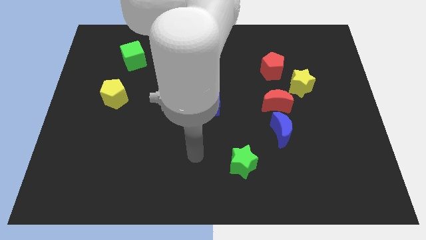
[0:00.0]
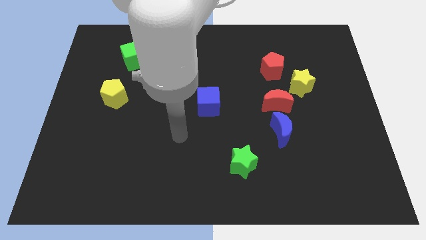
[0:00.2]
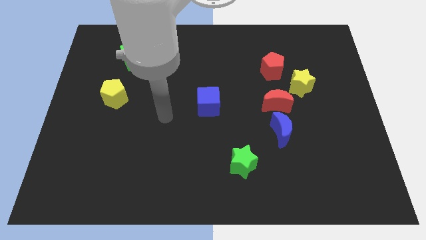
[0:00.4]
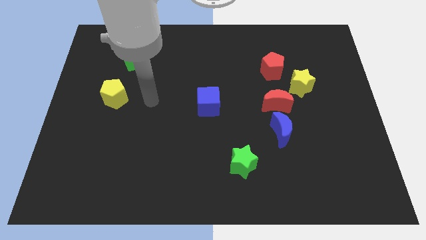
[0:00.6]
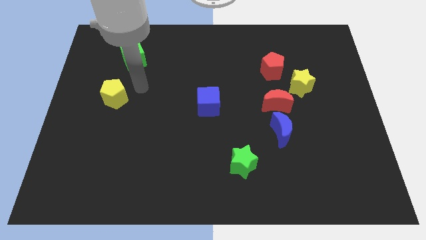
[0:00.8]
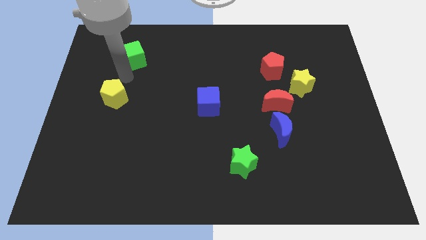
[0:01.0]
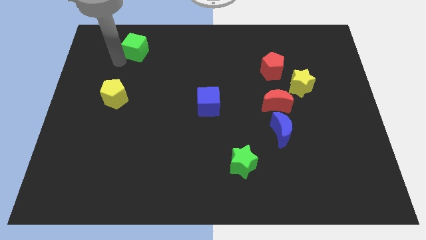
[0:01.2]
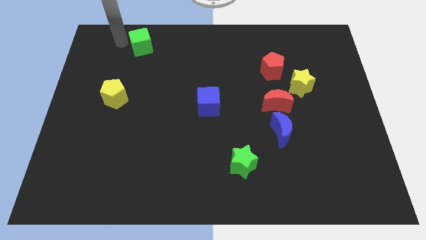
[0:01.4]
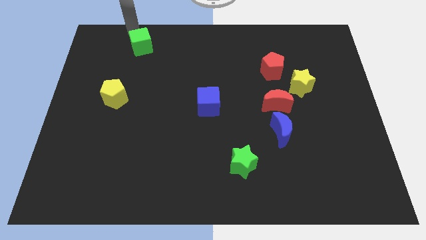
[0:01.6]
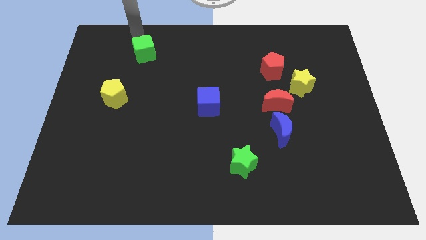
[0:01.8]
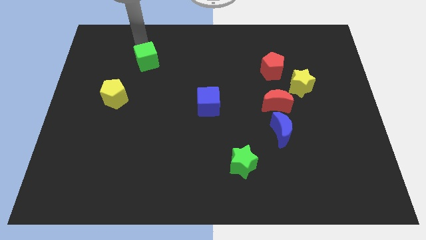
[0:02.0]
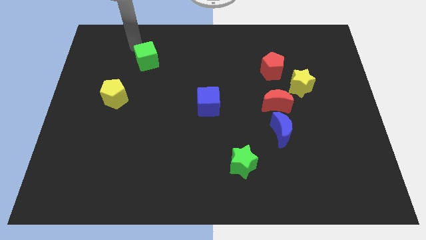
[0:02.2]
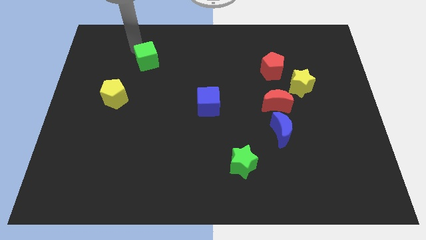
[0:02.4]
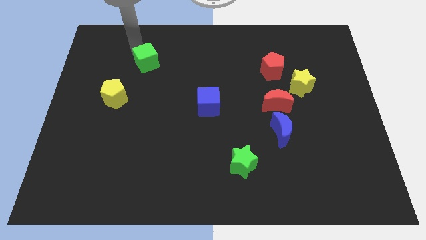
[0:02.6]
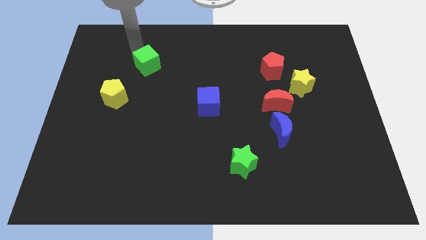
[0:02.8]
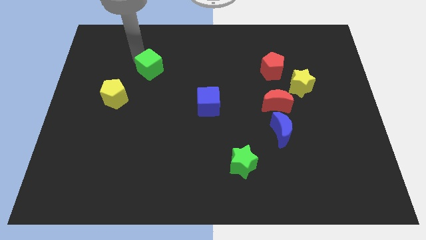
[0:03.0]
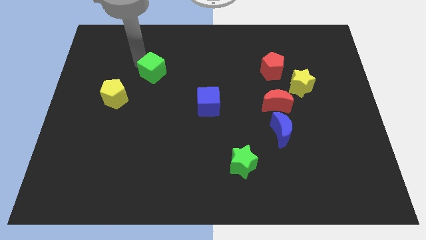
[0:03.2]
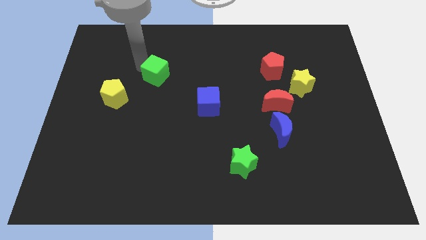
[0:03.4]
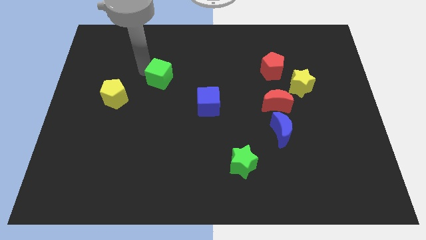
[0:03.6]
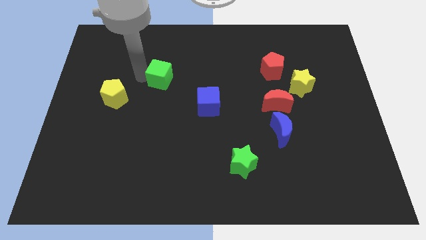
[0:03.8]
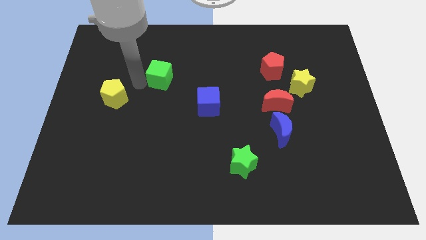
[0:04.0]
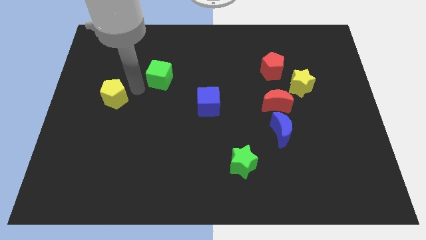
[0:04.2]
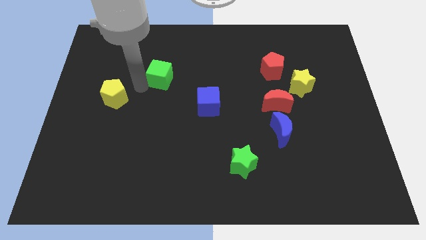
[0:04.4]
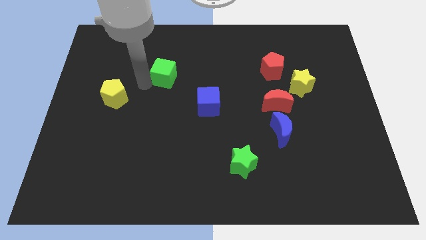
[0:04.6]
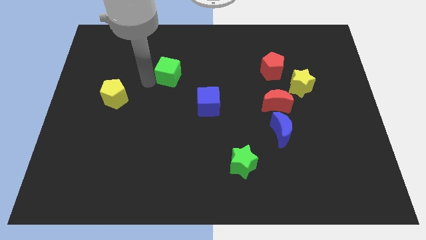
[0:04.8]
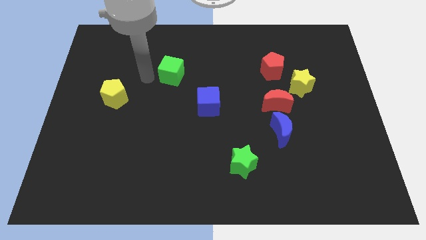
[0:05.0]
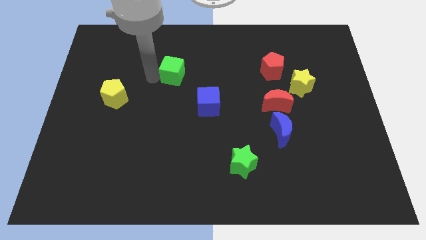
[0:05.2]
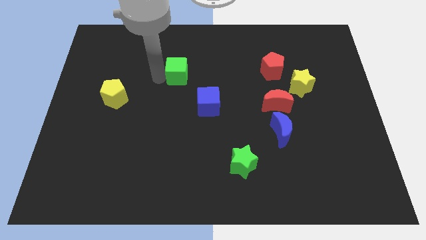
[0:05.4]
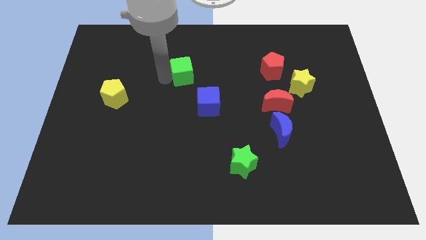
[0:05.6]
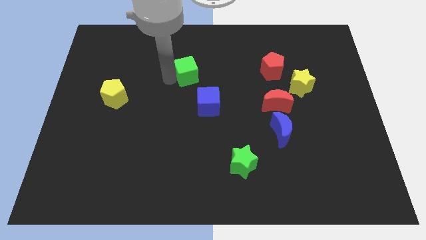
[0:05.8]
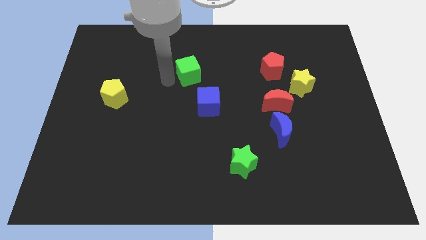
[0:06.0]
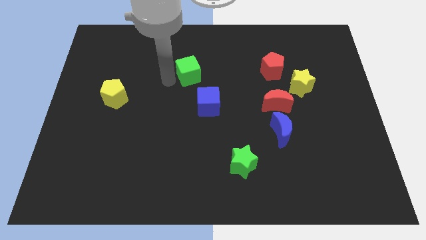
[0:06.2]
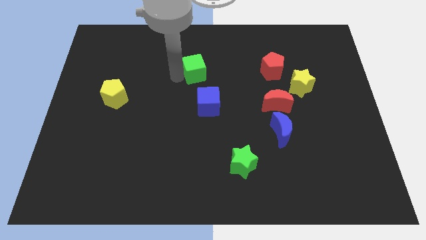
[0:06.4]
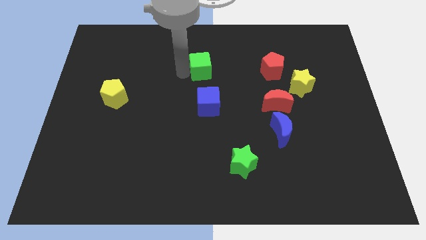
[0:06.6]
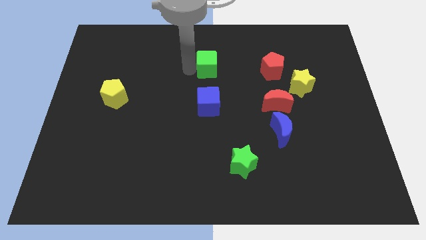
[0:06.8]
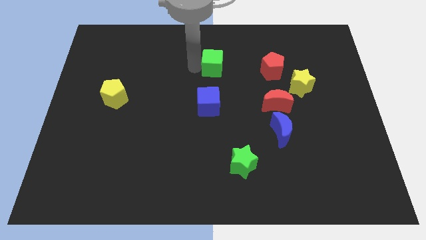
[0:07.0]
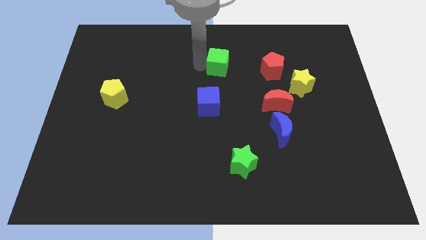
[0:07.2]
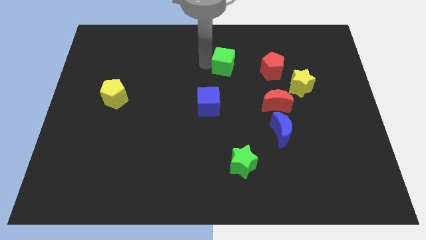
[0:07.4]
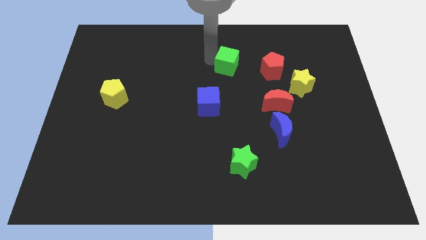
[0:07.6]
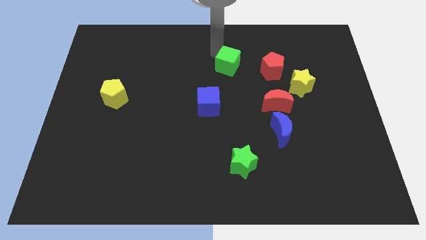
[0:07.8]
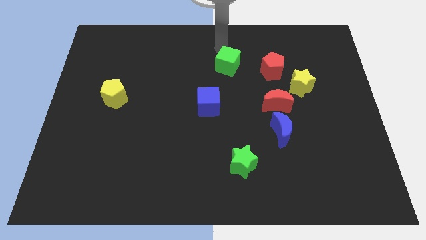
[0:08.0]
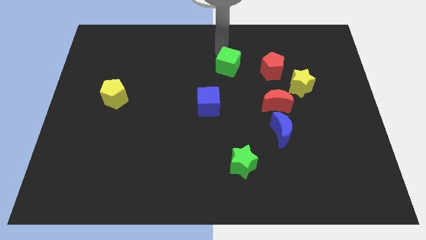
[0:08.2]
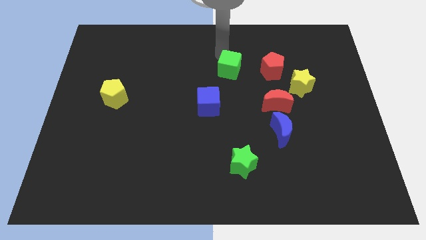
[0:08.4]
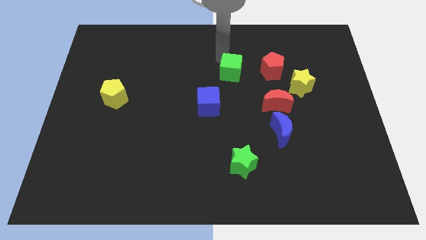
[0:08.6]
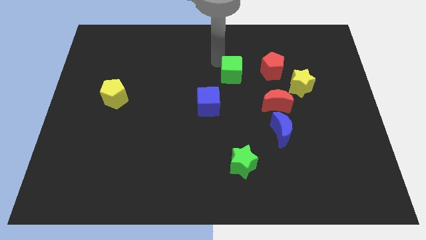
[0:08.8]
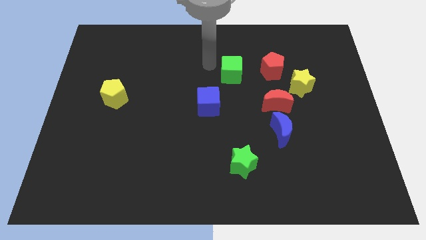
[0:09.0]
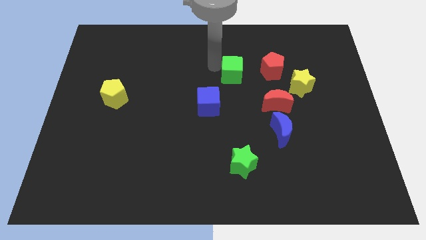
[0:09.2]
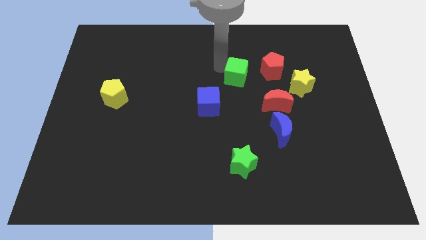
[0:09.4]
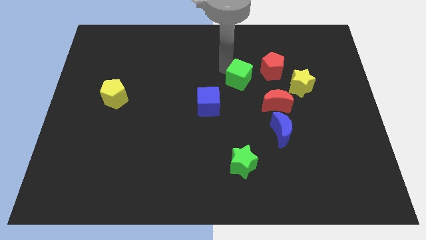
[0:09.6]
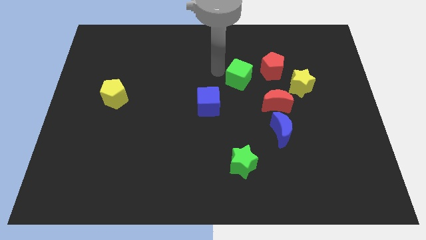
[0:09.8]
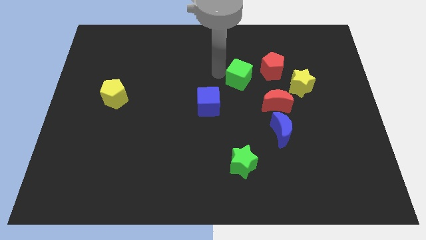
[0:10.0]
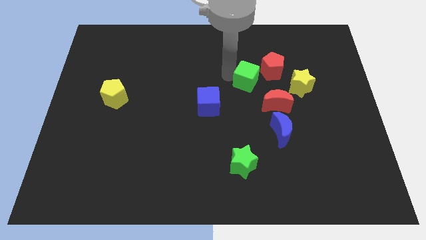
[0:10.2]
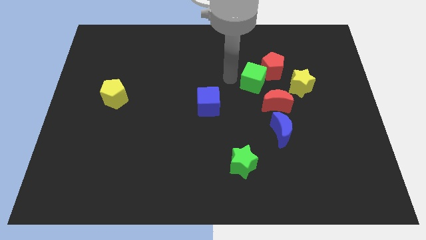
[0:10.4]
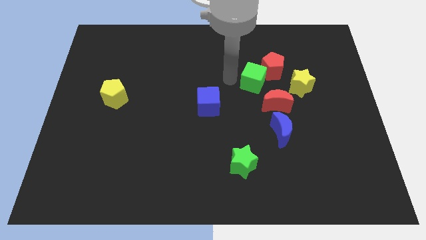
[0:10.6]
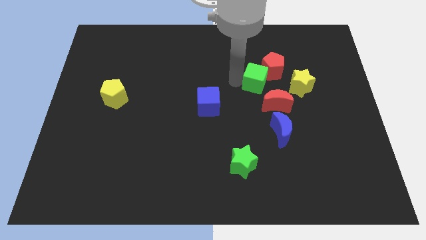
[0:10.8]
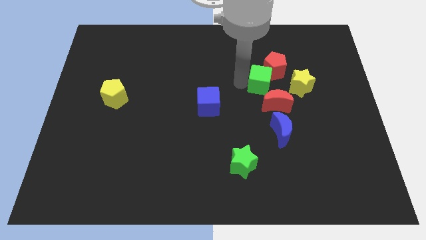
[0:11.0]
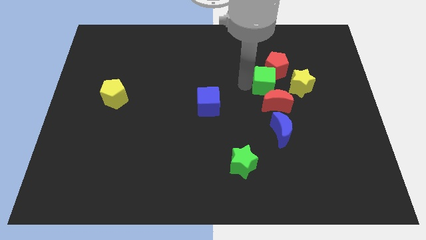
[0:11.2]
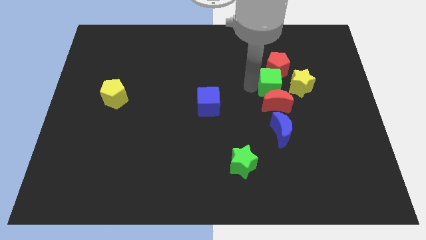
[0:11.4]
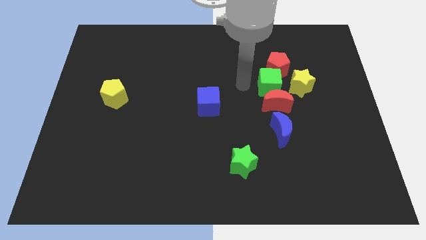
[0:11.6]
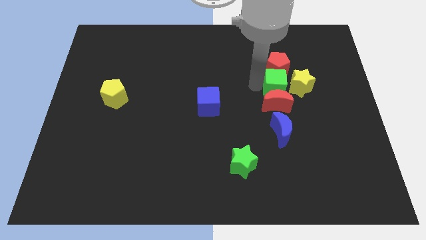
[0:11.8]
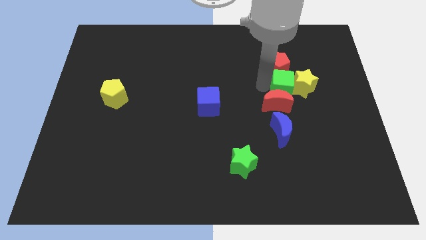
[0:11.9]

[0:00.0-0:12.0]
put the green cube to the yellow star
